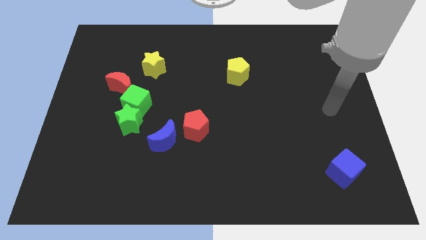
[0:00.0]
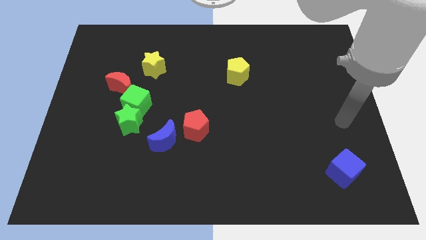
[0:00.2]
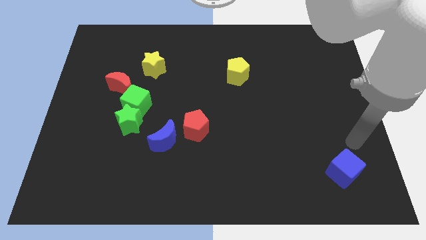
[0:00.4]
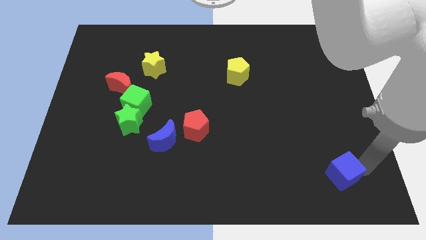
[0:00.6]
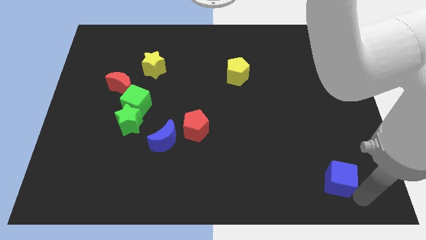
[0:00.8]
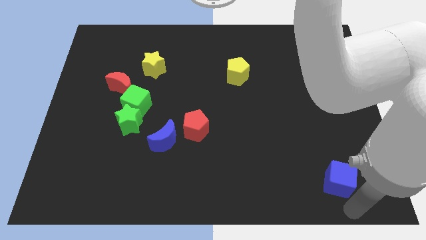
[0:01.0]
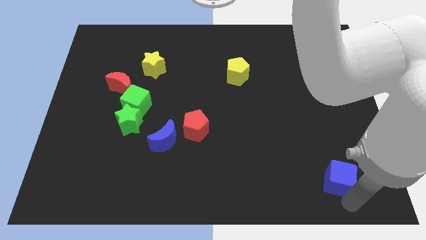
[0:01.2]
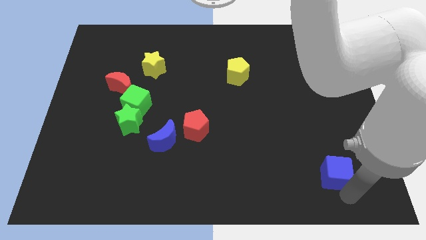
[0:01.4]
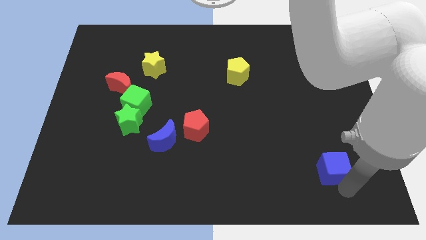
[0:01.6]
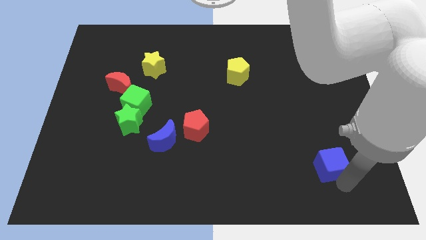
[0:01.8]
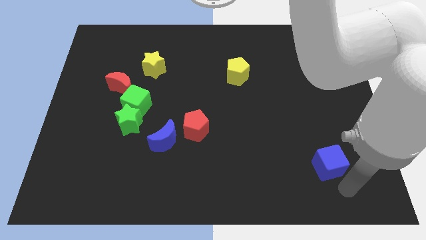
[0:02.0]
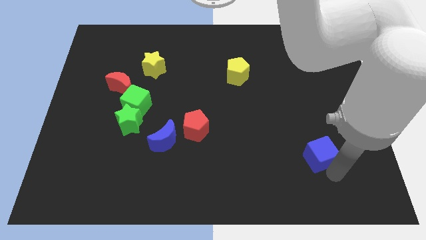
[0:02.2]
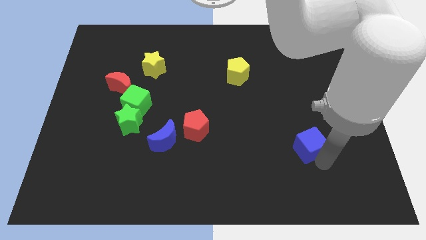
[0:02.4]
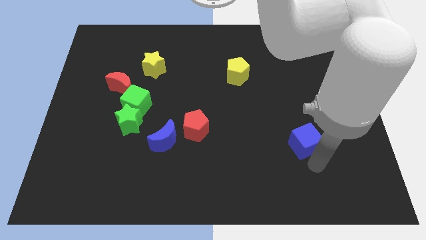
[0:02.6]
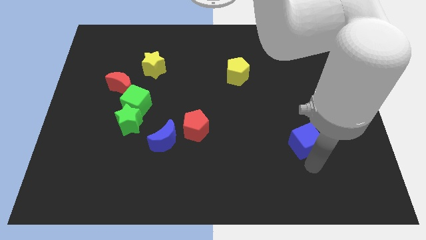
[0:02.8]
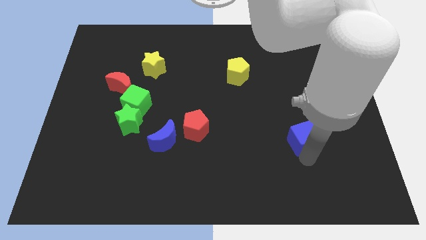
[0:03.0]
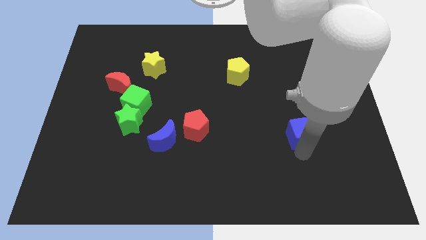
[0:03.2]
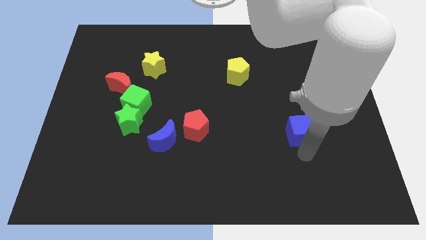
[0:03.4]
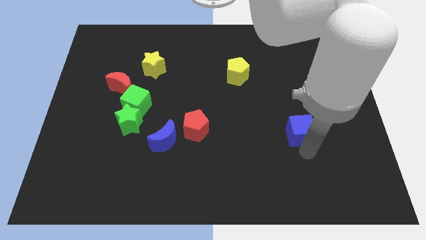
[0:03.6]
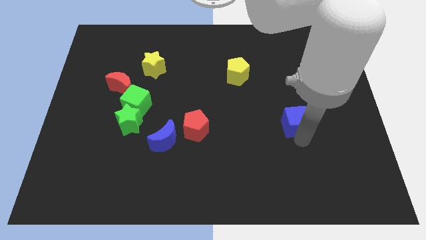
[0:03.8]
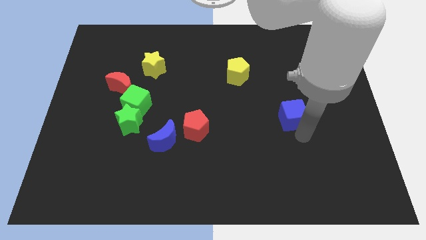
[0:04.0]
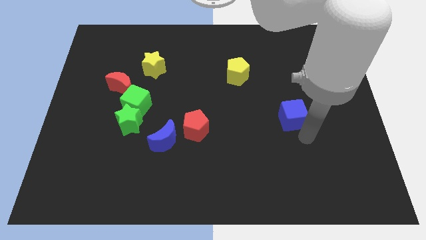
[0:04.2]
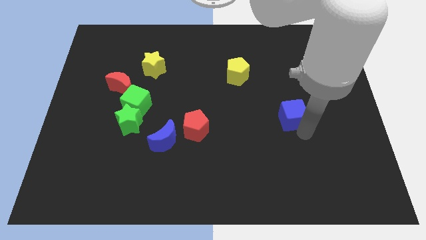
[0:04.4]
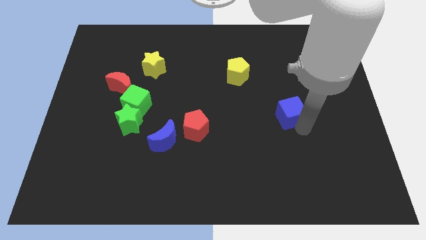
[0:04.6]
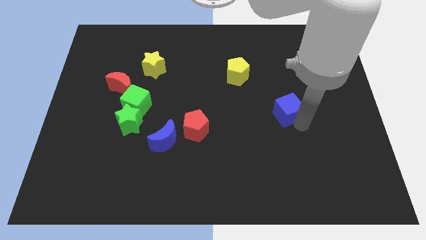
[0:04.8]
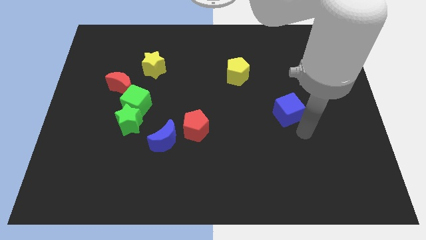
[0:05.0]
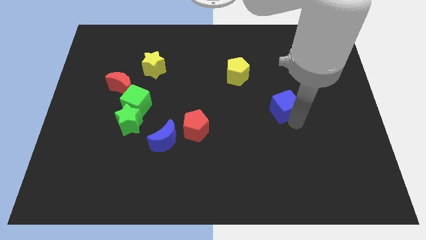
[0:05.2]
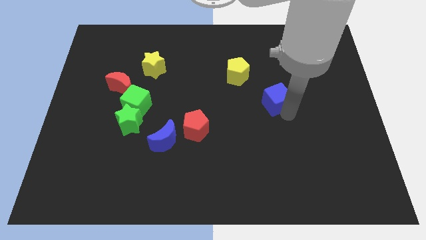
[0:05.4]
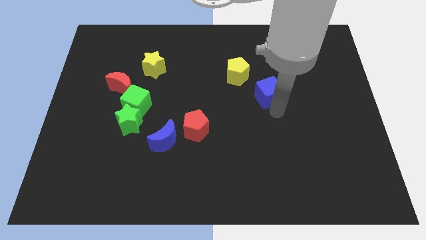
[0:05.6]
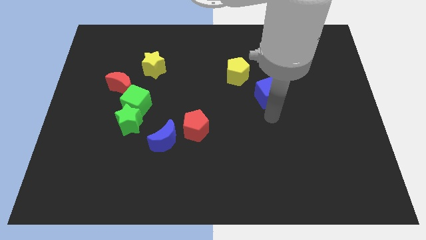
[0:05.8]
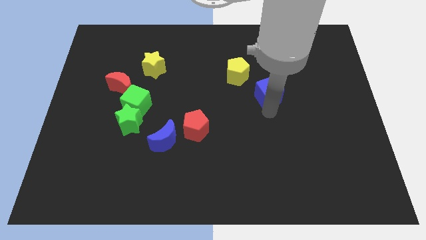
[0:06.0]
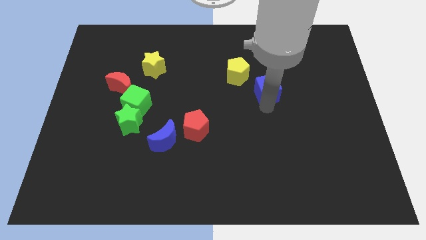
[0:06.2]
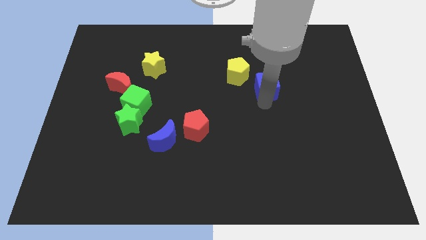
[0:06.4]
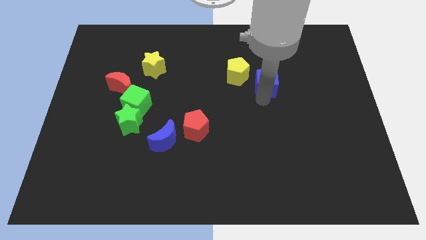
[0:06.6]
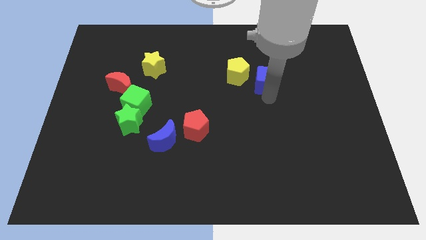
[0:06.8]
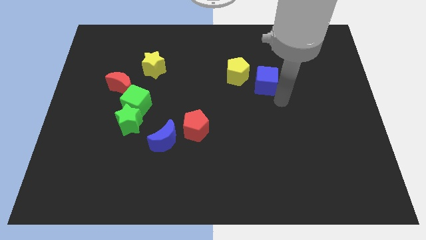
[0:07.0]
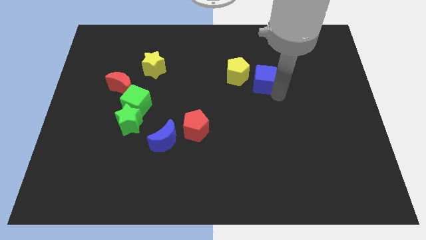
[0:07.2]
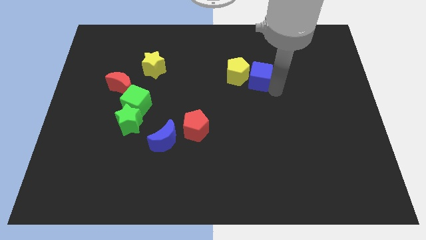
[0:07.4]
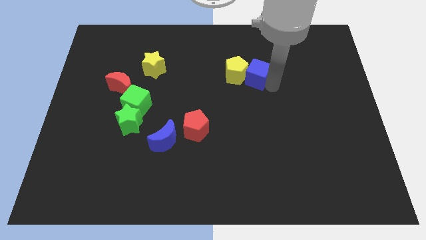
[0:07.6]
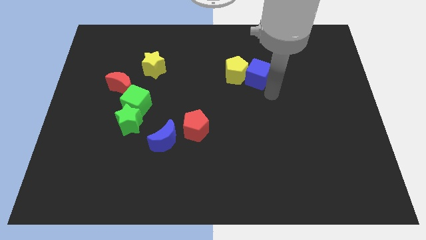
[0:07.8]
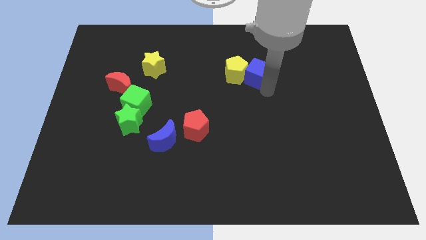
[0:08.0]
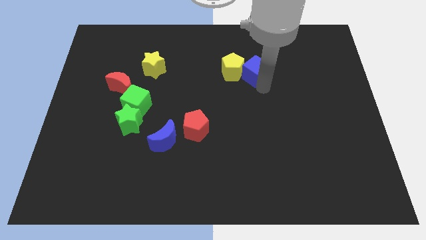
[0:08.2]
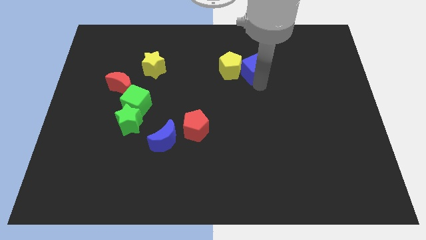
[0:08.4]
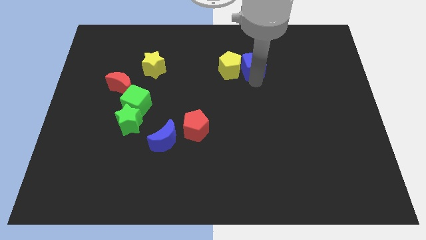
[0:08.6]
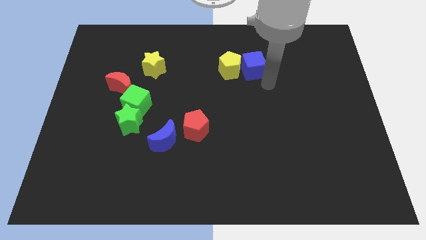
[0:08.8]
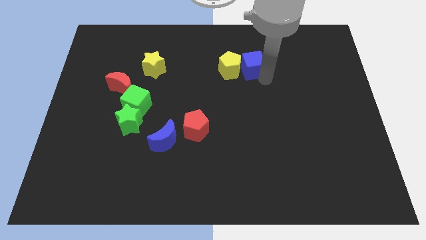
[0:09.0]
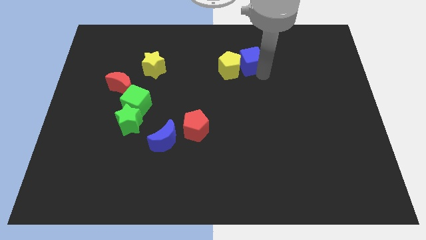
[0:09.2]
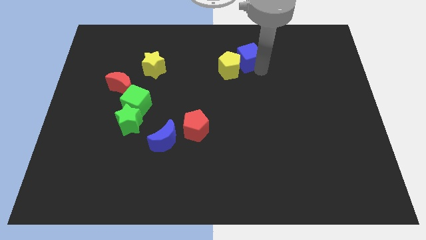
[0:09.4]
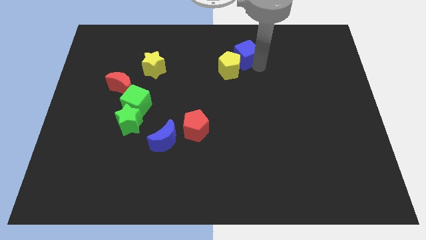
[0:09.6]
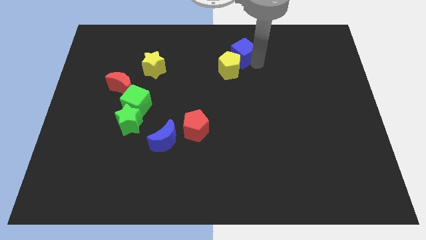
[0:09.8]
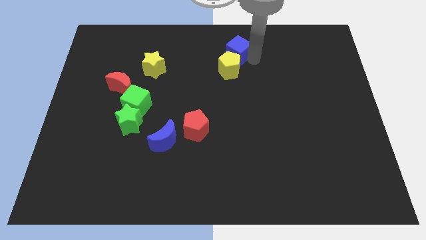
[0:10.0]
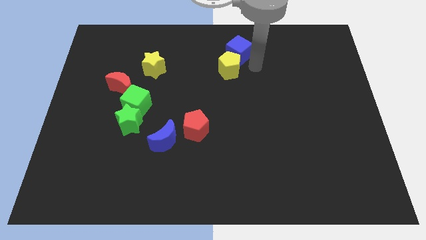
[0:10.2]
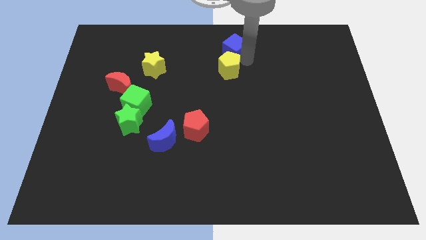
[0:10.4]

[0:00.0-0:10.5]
push the blue cube to the top
